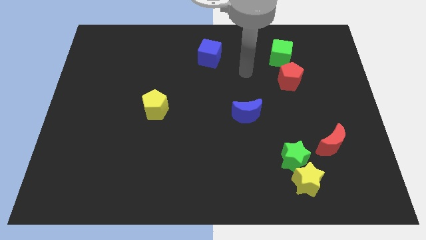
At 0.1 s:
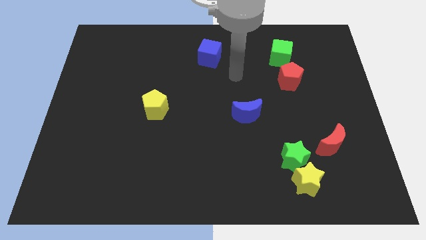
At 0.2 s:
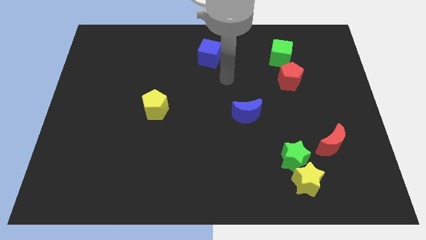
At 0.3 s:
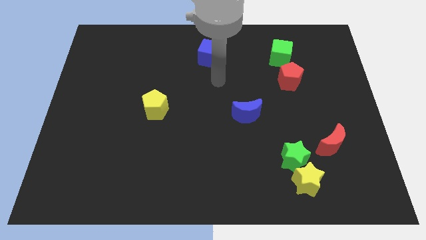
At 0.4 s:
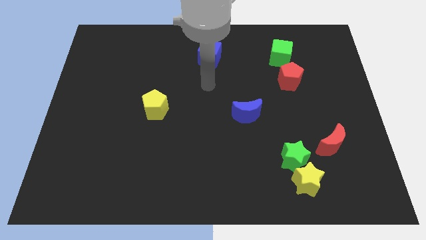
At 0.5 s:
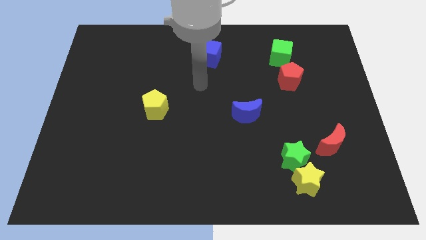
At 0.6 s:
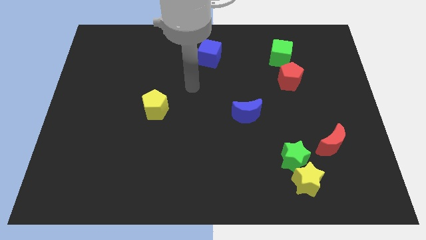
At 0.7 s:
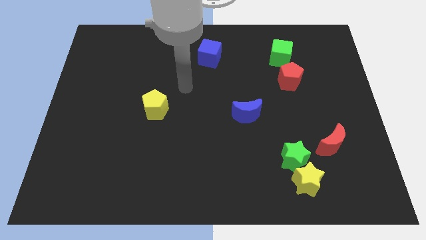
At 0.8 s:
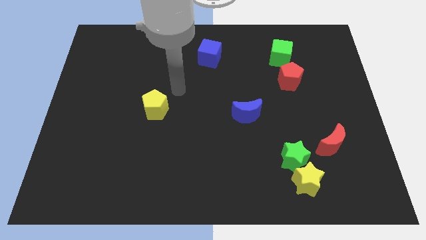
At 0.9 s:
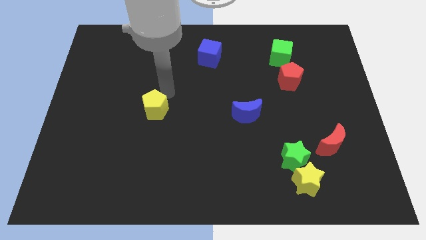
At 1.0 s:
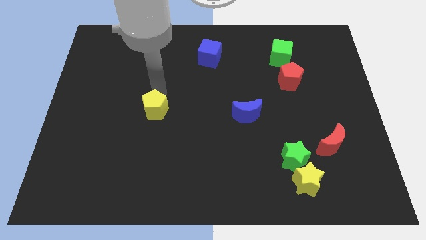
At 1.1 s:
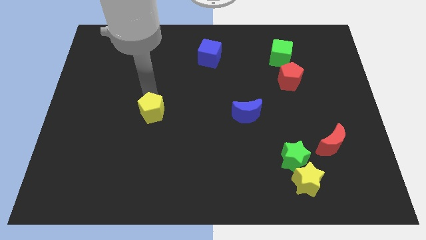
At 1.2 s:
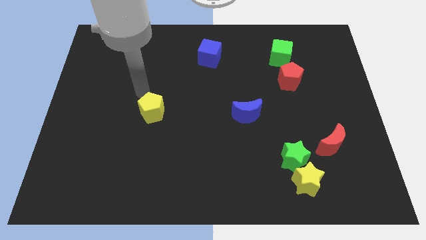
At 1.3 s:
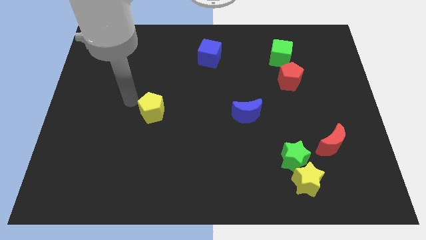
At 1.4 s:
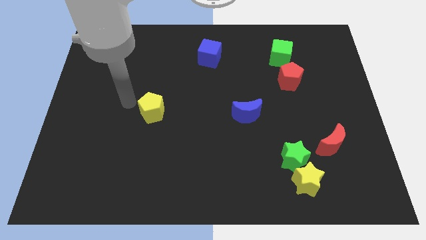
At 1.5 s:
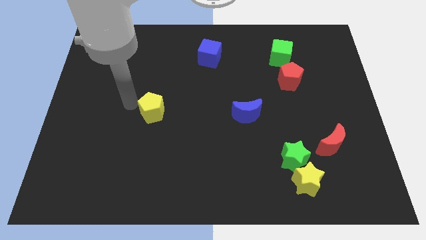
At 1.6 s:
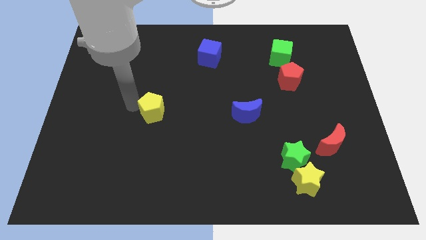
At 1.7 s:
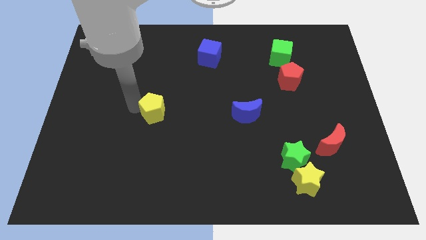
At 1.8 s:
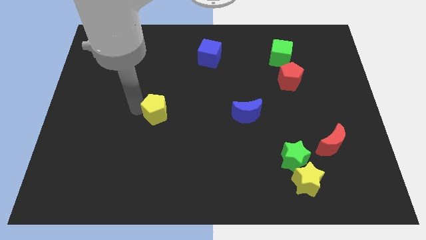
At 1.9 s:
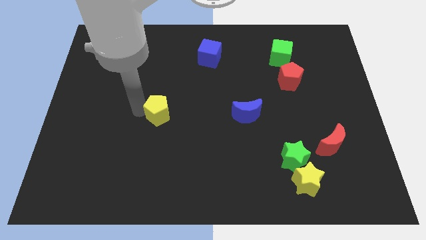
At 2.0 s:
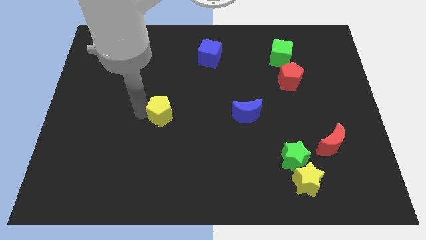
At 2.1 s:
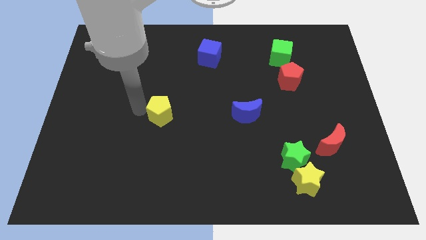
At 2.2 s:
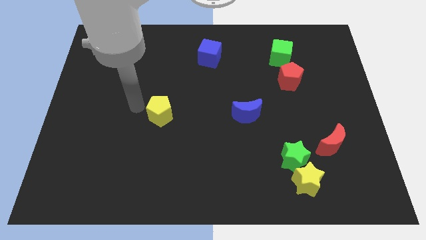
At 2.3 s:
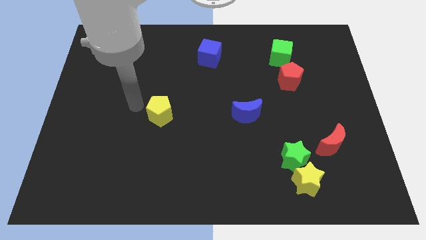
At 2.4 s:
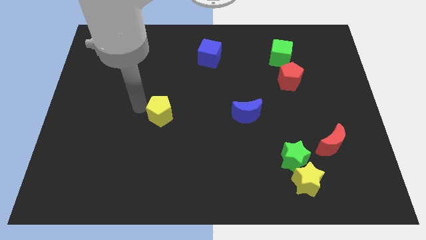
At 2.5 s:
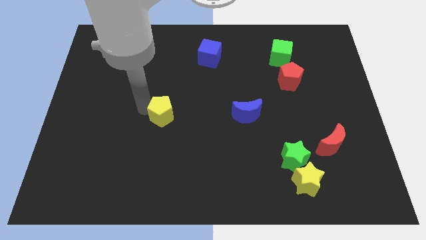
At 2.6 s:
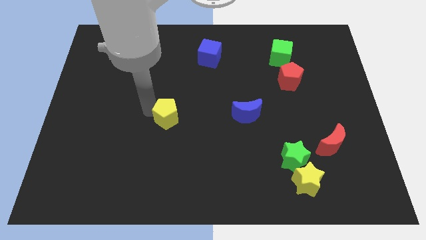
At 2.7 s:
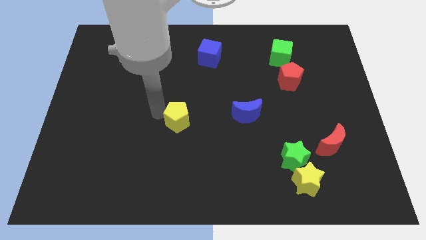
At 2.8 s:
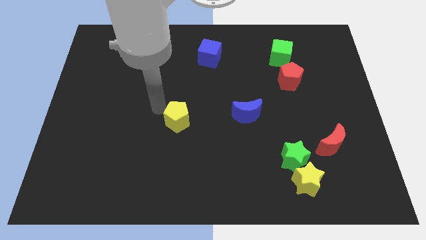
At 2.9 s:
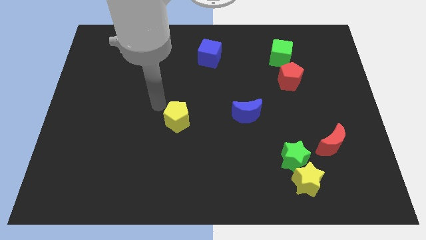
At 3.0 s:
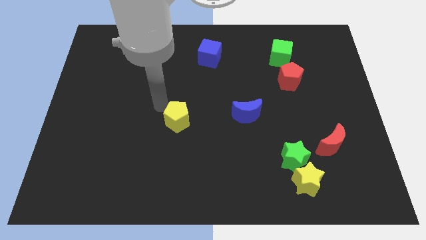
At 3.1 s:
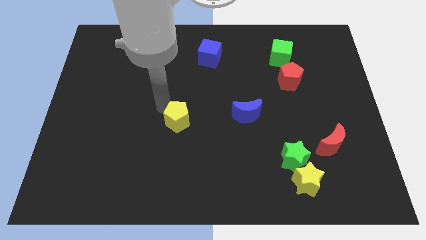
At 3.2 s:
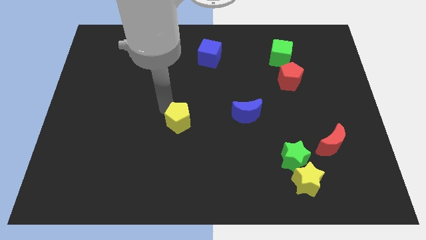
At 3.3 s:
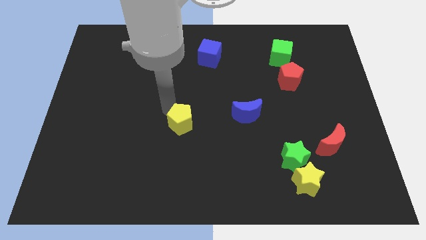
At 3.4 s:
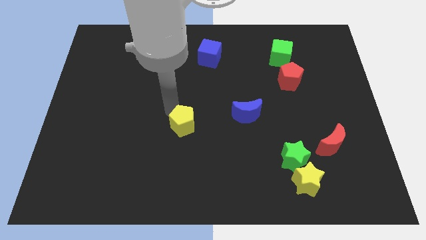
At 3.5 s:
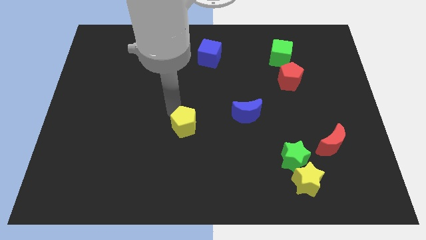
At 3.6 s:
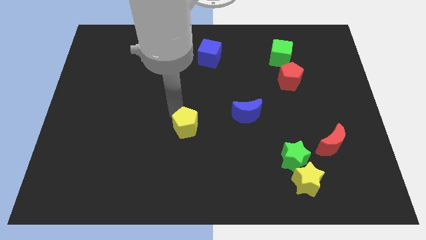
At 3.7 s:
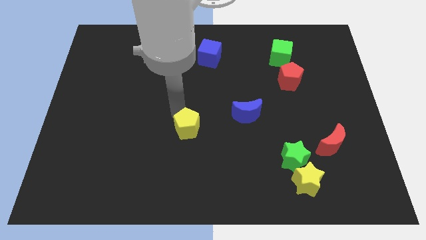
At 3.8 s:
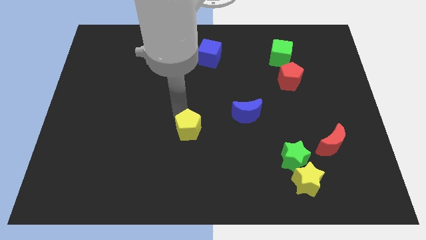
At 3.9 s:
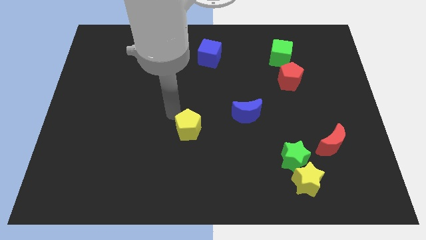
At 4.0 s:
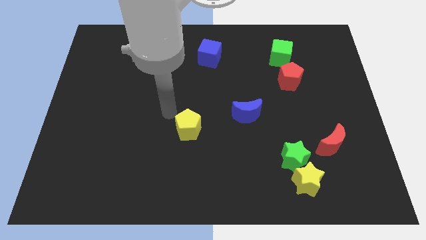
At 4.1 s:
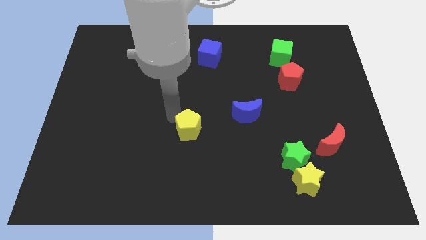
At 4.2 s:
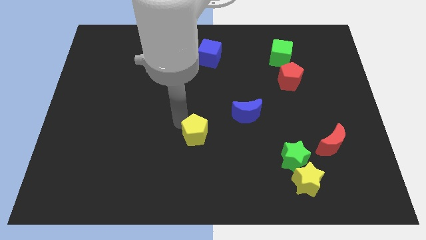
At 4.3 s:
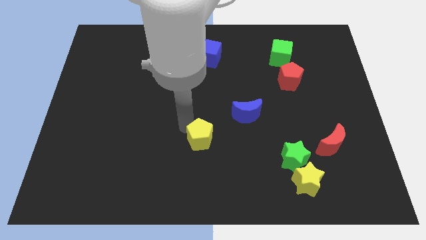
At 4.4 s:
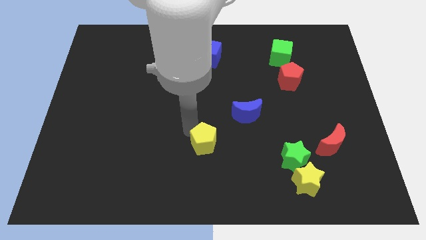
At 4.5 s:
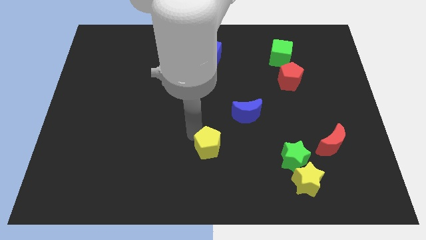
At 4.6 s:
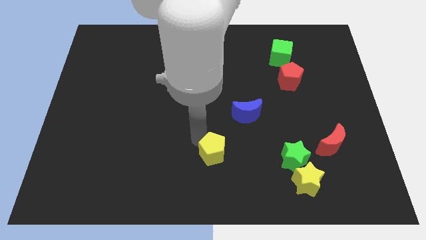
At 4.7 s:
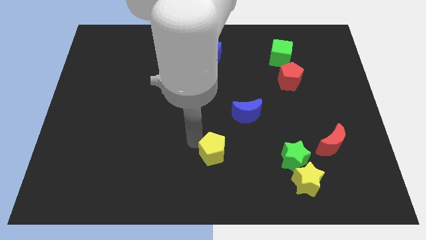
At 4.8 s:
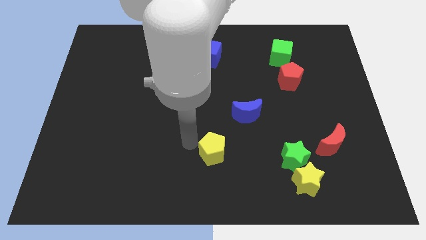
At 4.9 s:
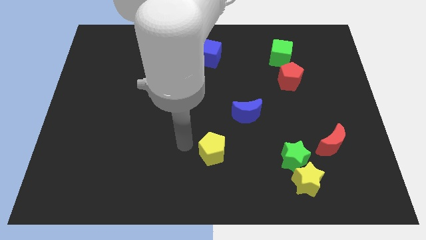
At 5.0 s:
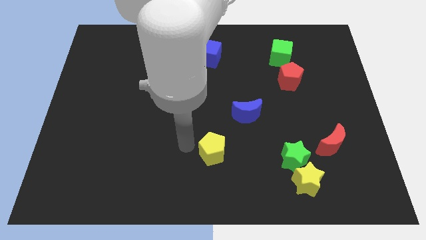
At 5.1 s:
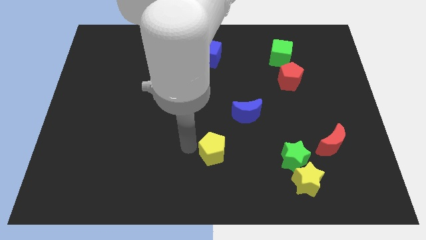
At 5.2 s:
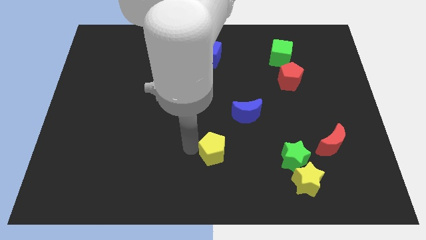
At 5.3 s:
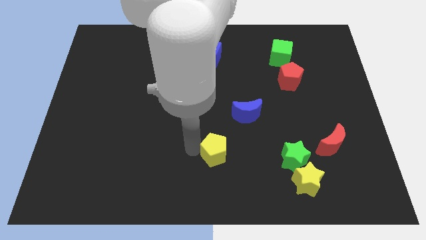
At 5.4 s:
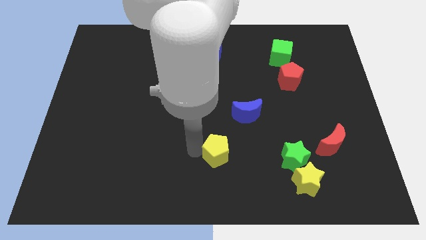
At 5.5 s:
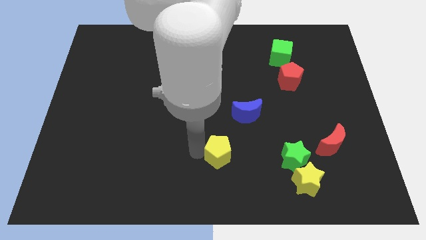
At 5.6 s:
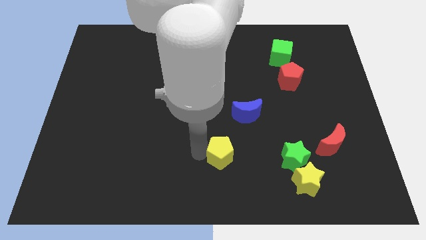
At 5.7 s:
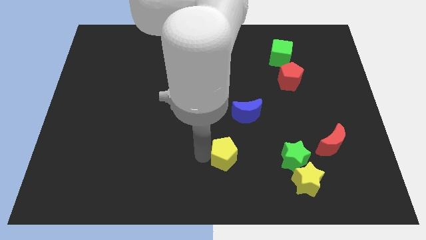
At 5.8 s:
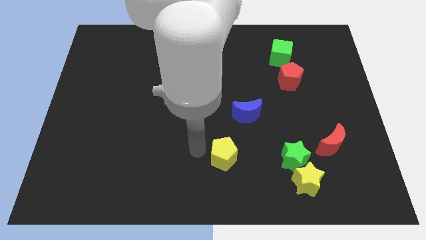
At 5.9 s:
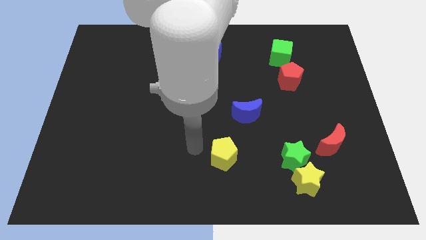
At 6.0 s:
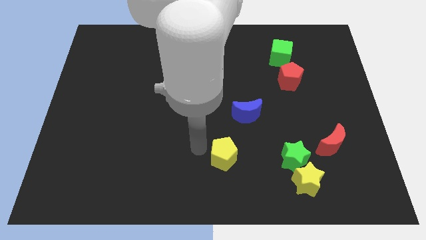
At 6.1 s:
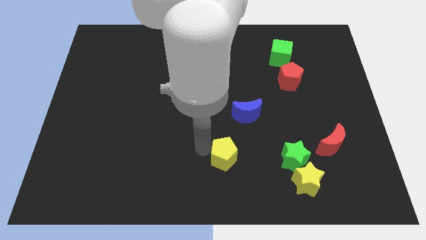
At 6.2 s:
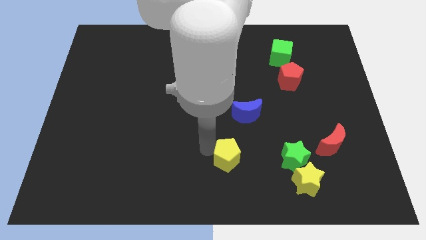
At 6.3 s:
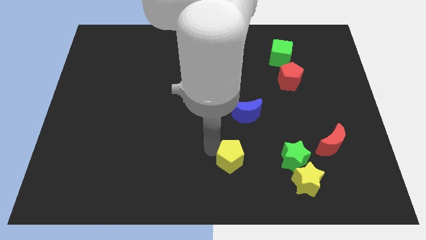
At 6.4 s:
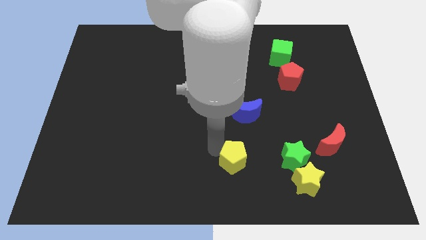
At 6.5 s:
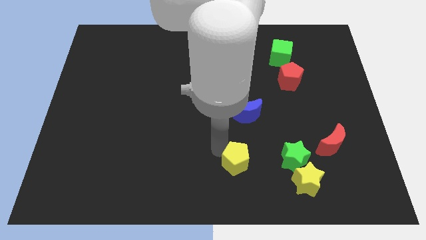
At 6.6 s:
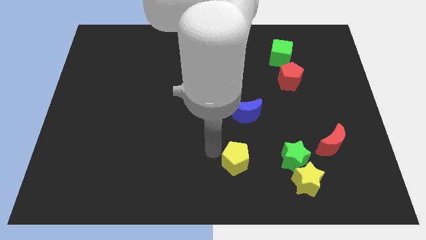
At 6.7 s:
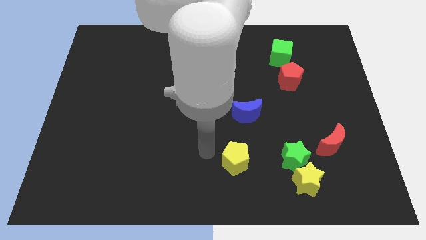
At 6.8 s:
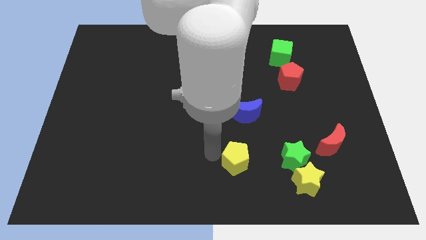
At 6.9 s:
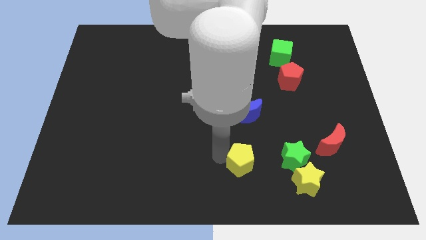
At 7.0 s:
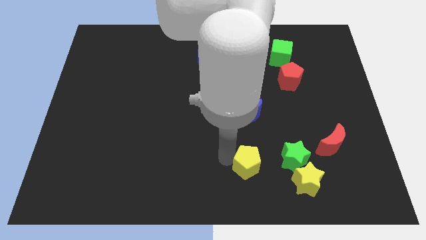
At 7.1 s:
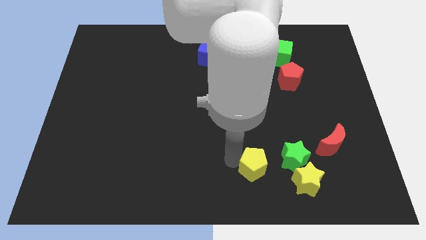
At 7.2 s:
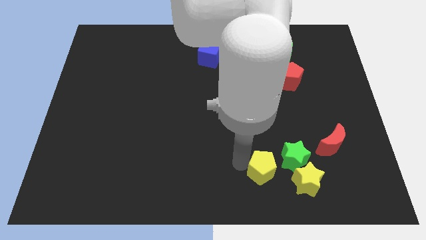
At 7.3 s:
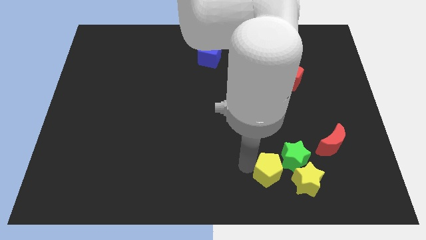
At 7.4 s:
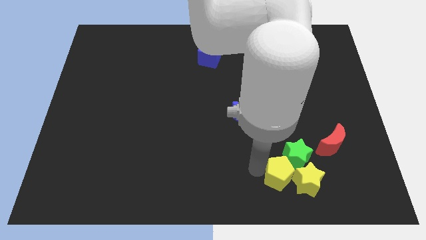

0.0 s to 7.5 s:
move the yellow pentagon close to the yellow star
